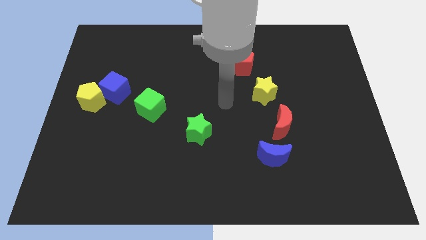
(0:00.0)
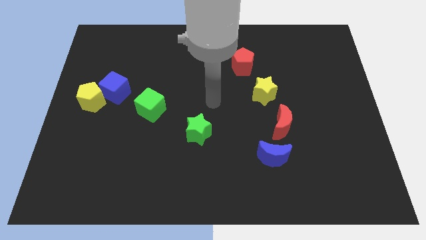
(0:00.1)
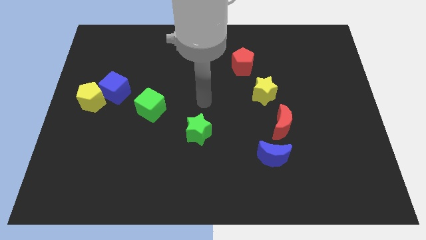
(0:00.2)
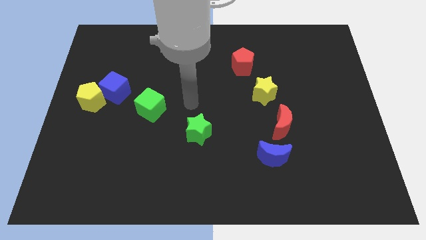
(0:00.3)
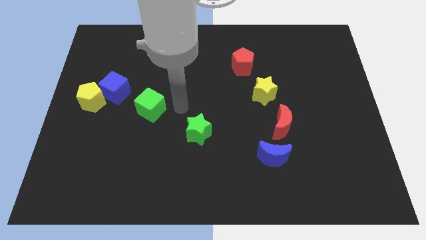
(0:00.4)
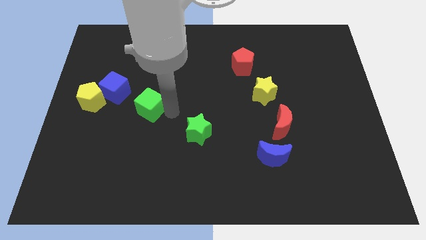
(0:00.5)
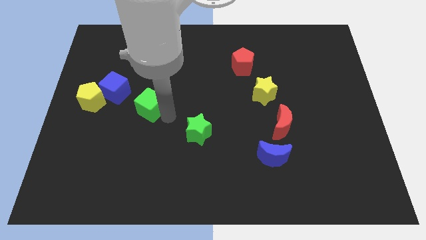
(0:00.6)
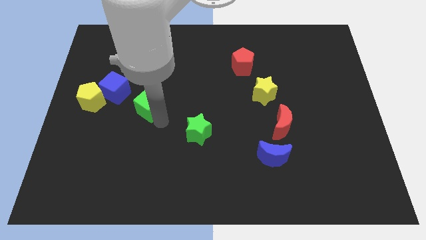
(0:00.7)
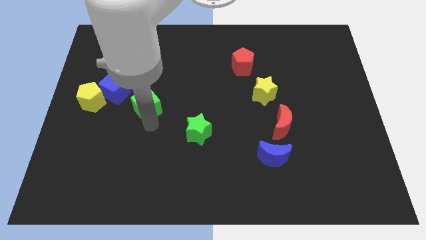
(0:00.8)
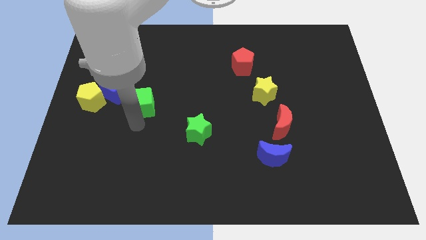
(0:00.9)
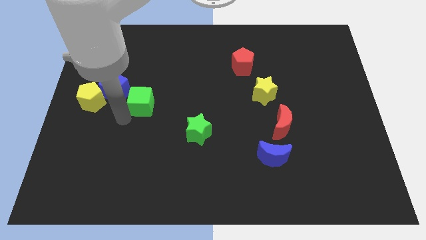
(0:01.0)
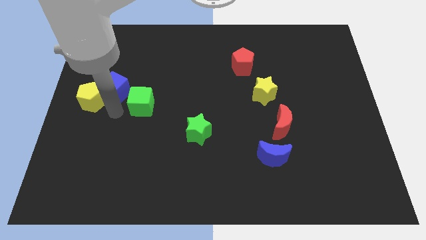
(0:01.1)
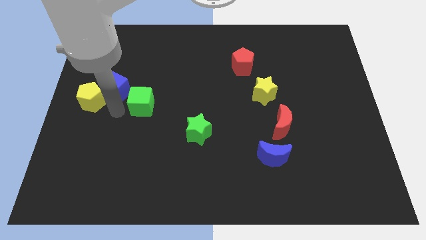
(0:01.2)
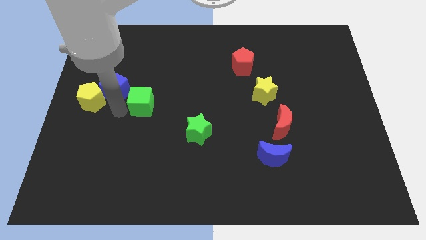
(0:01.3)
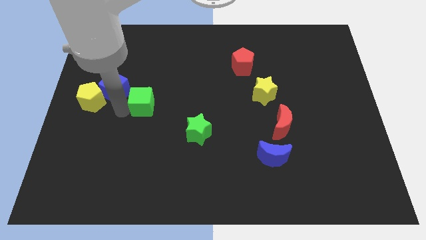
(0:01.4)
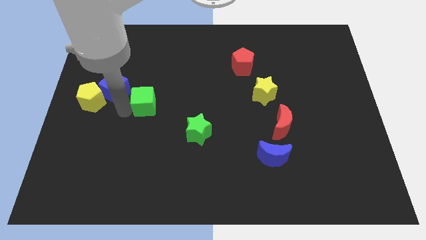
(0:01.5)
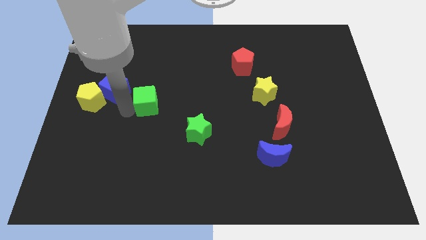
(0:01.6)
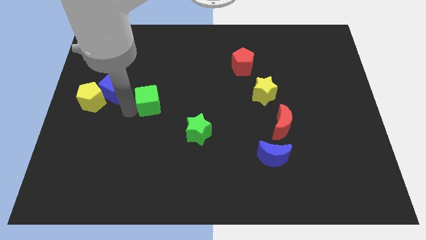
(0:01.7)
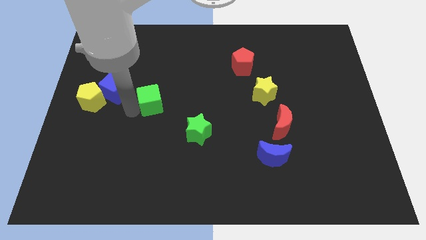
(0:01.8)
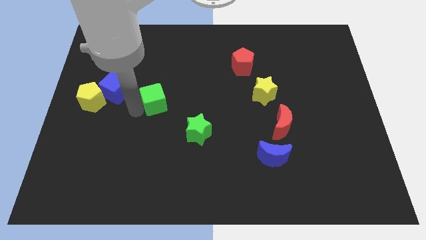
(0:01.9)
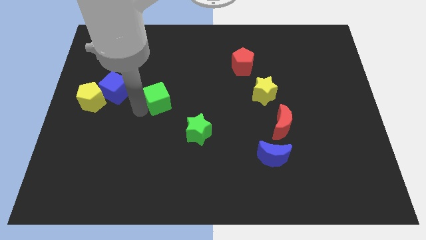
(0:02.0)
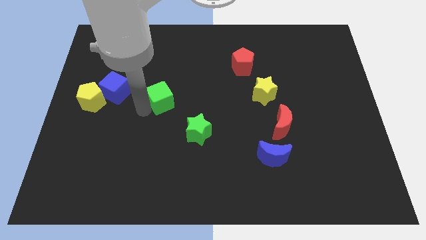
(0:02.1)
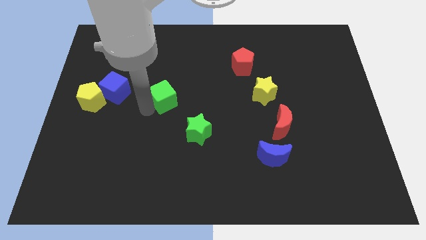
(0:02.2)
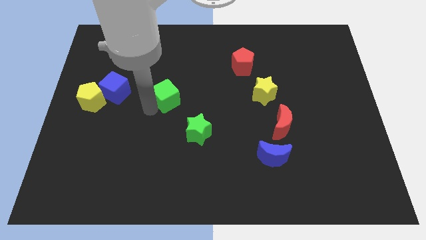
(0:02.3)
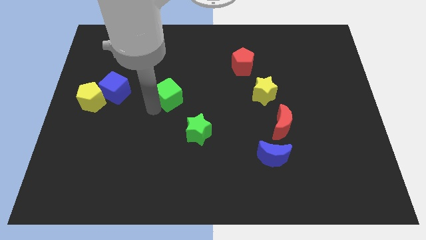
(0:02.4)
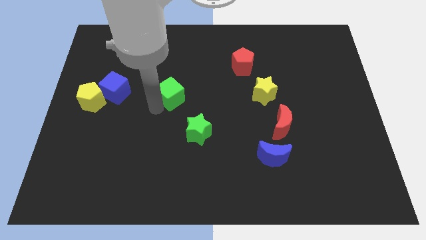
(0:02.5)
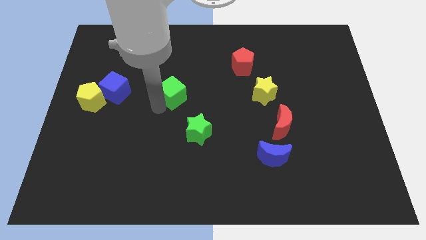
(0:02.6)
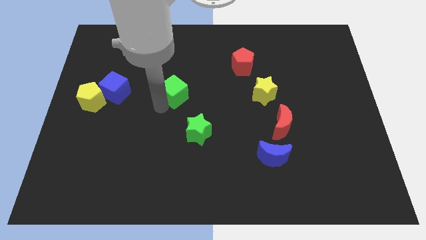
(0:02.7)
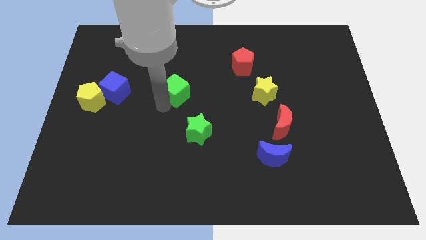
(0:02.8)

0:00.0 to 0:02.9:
move the green cube up and to the right a little bit

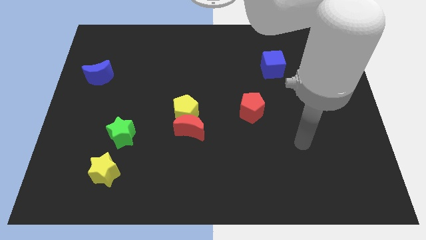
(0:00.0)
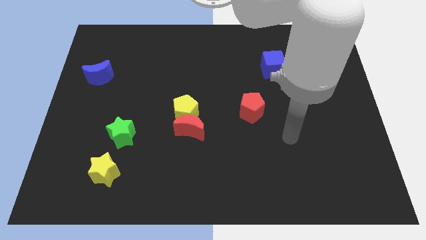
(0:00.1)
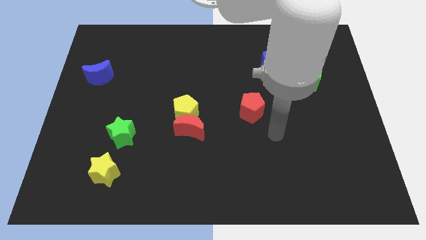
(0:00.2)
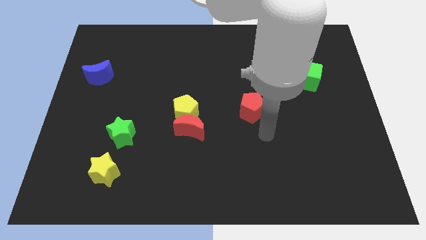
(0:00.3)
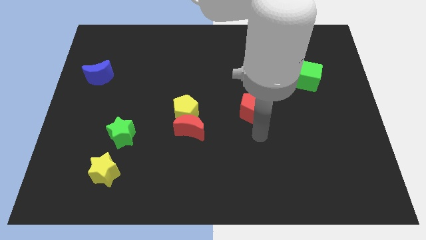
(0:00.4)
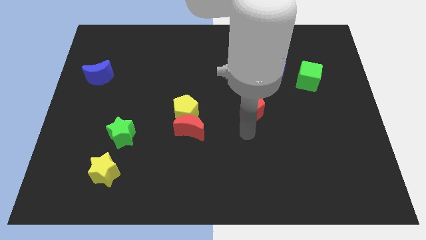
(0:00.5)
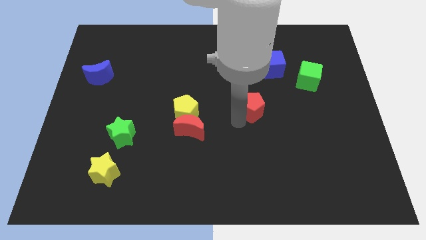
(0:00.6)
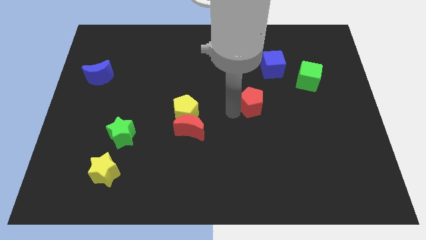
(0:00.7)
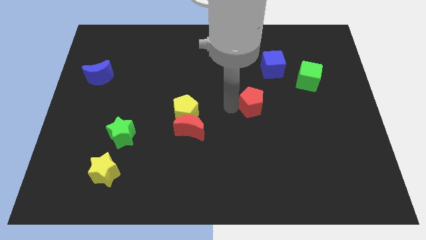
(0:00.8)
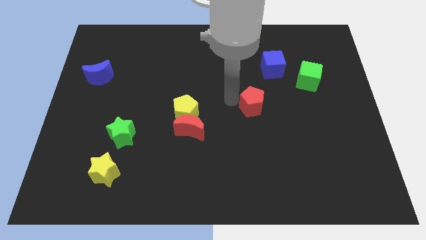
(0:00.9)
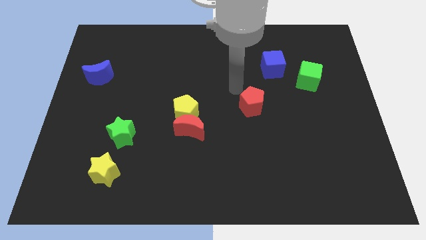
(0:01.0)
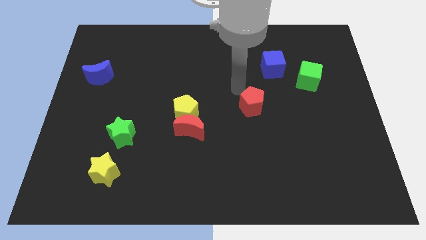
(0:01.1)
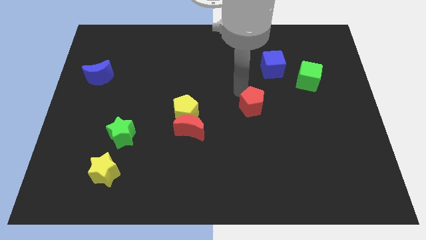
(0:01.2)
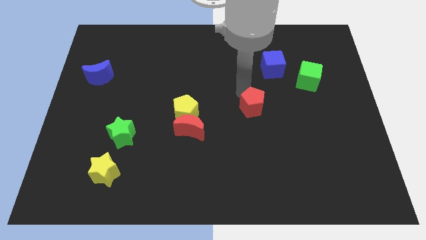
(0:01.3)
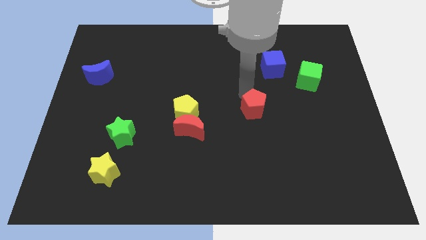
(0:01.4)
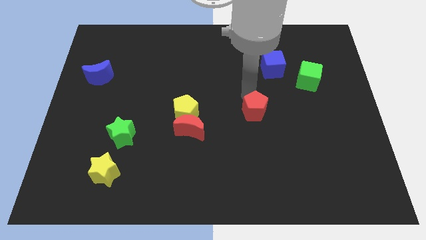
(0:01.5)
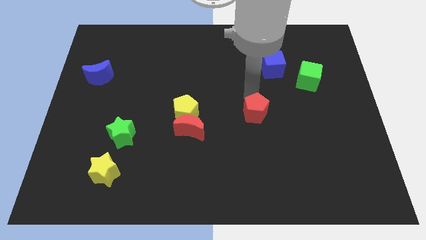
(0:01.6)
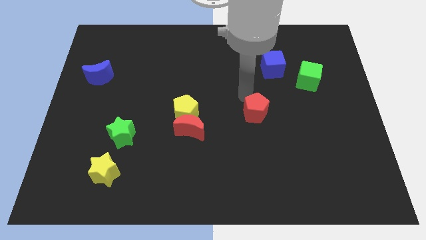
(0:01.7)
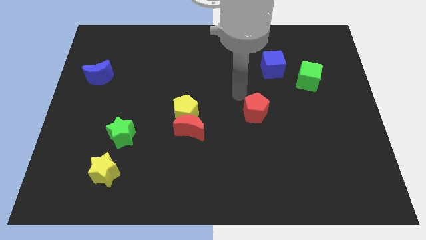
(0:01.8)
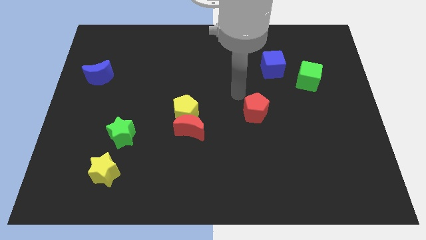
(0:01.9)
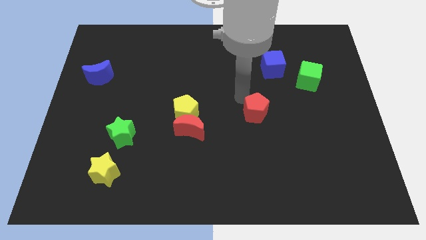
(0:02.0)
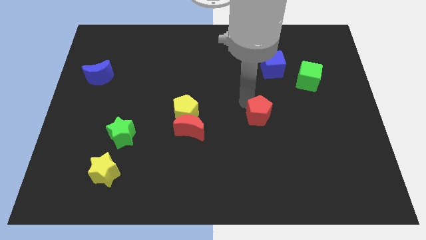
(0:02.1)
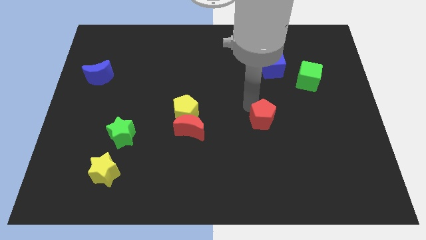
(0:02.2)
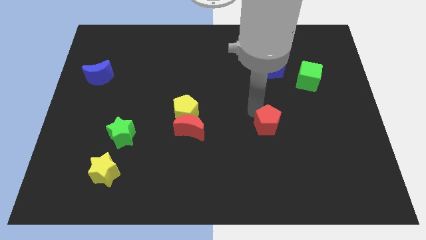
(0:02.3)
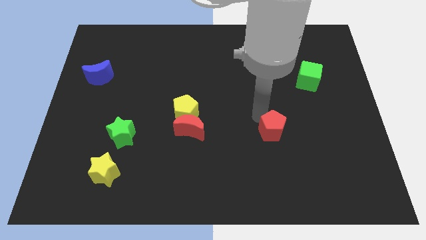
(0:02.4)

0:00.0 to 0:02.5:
slide the red pentagon a little bit down and to the right

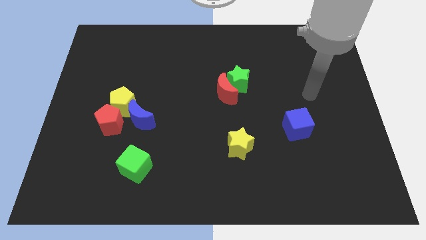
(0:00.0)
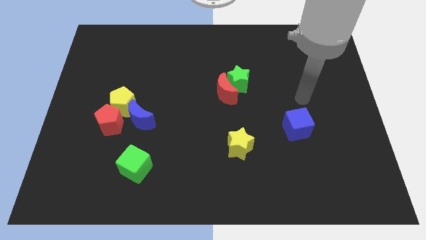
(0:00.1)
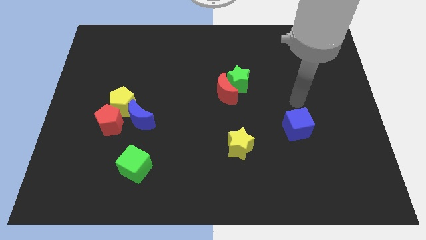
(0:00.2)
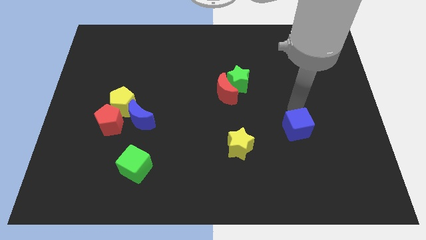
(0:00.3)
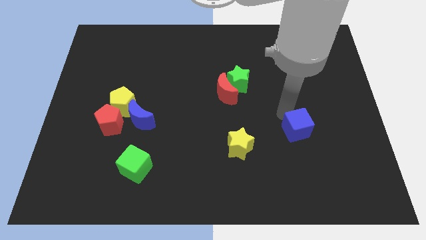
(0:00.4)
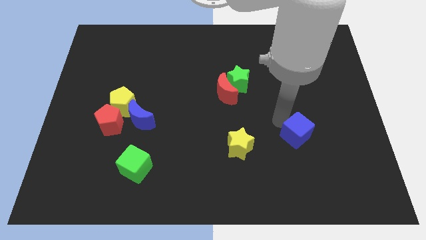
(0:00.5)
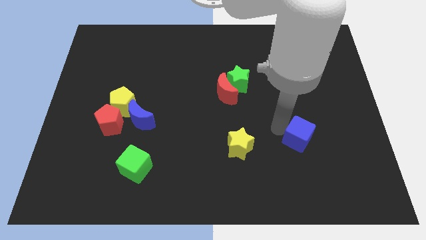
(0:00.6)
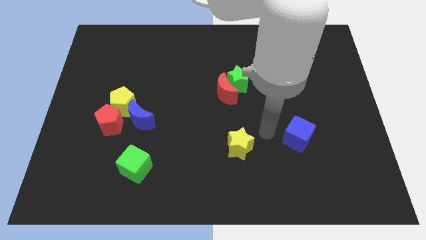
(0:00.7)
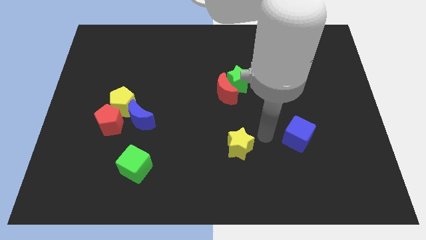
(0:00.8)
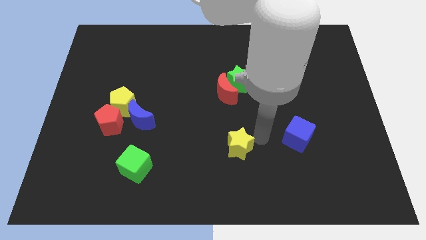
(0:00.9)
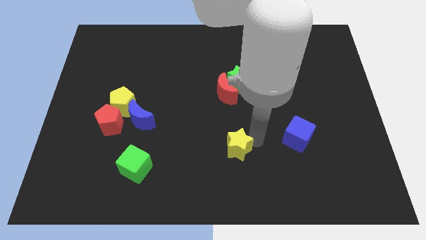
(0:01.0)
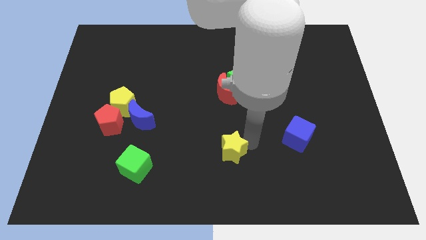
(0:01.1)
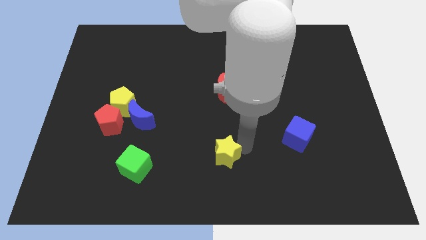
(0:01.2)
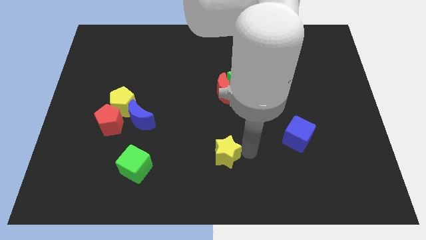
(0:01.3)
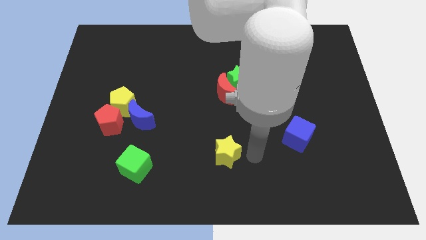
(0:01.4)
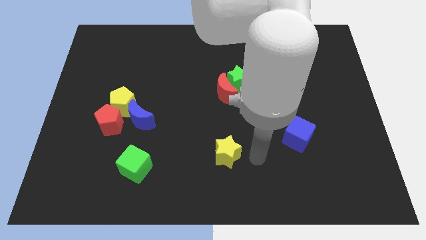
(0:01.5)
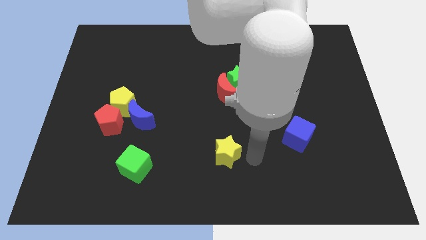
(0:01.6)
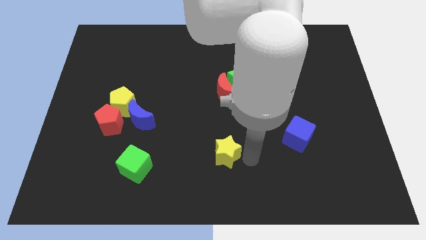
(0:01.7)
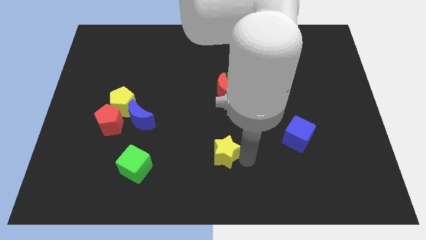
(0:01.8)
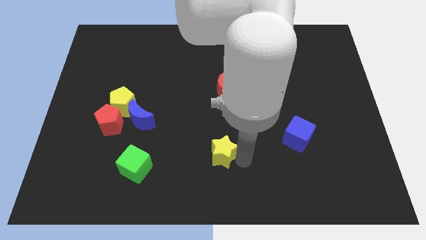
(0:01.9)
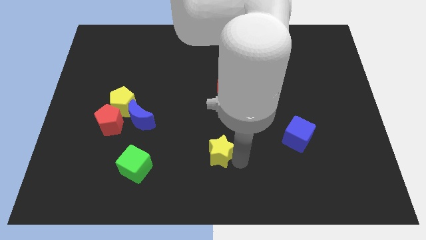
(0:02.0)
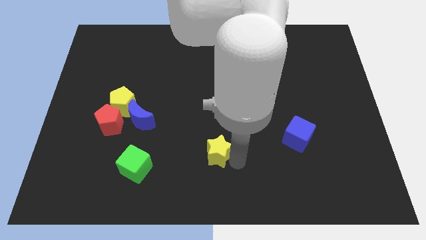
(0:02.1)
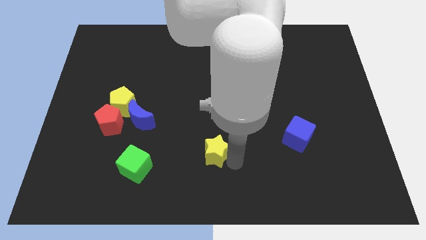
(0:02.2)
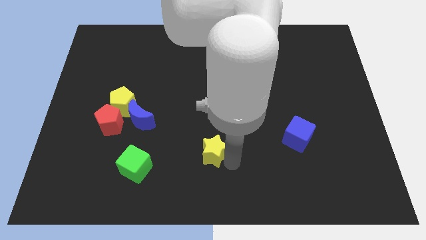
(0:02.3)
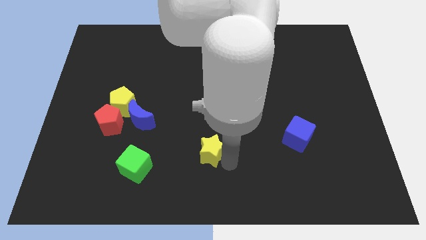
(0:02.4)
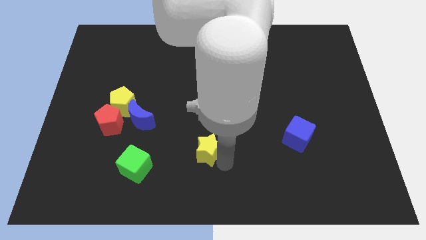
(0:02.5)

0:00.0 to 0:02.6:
move the yellow star somewhat to the left
